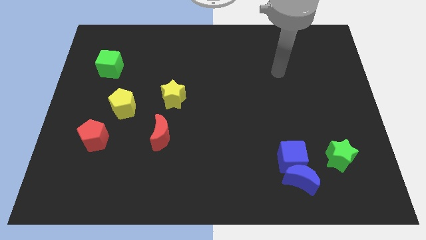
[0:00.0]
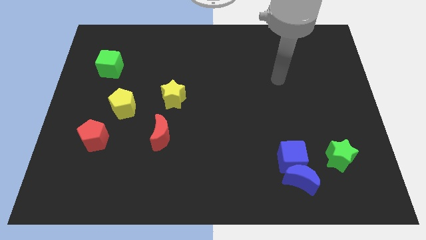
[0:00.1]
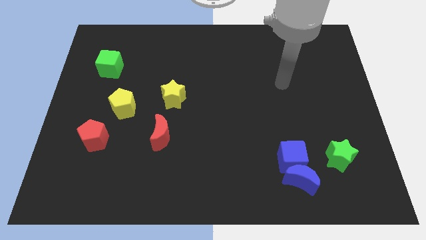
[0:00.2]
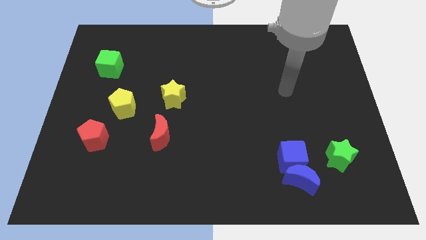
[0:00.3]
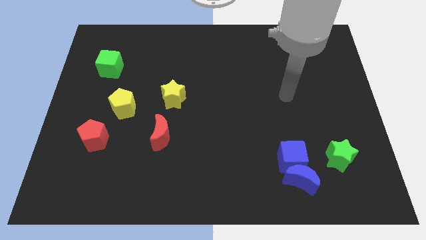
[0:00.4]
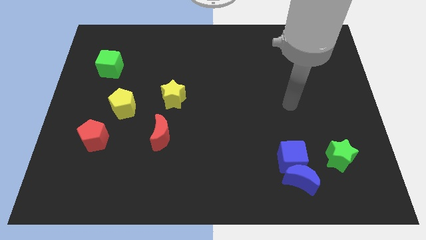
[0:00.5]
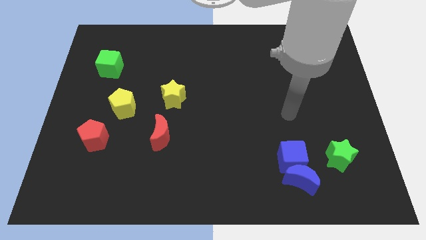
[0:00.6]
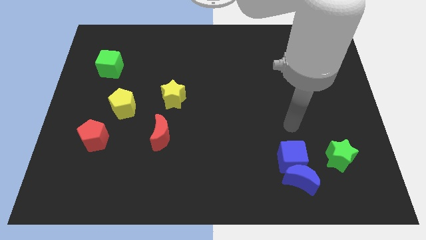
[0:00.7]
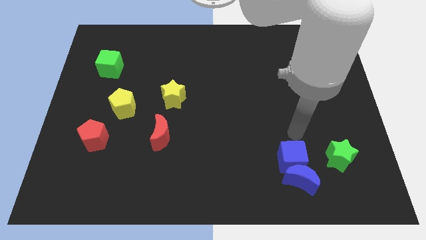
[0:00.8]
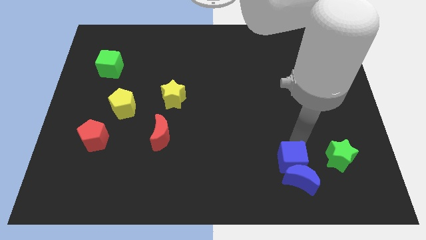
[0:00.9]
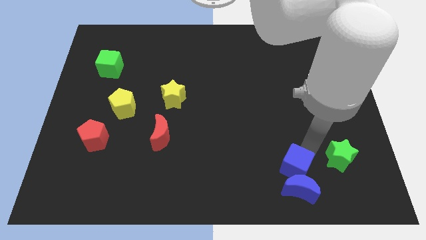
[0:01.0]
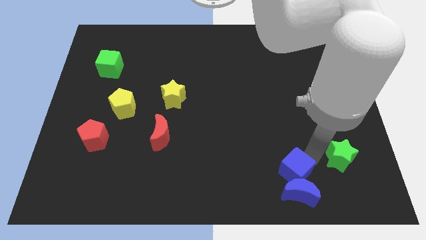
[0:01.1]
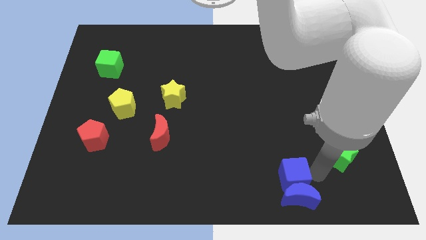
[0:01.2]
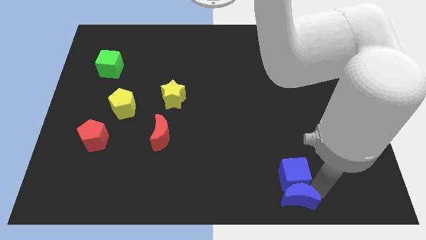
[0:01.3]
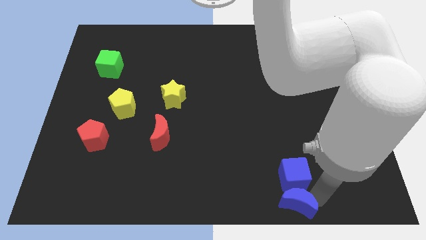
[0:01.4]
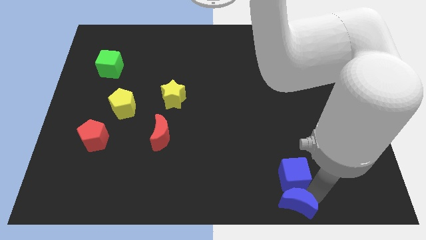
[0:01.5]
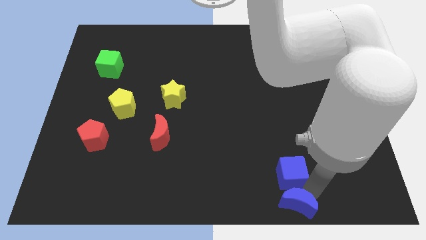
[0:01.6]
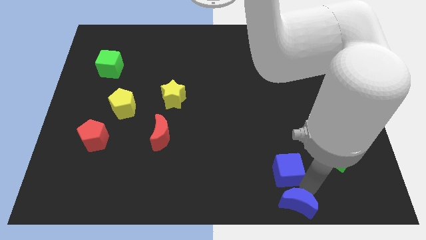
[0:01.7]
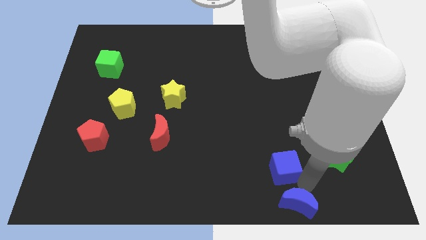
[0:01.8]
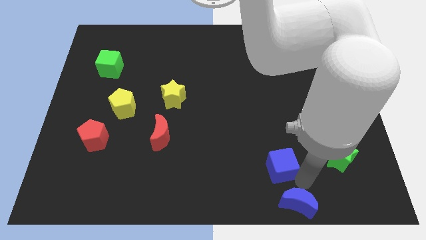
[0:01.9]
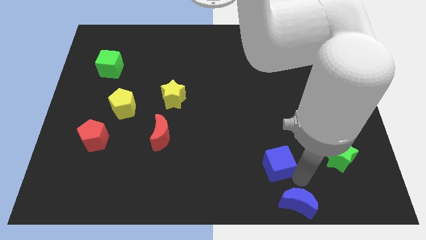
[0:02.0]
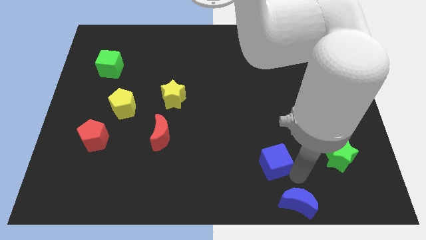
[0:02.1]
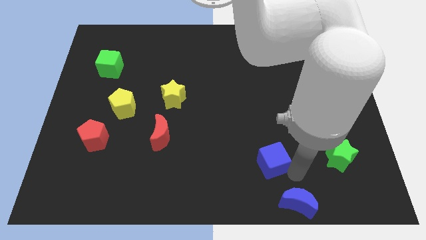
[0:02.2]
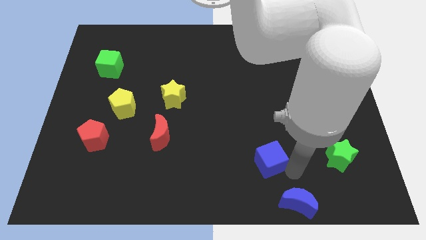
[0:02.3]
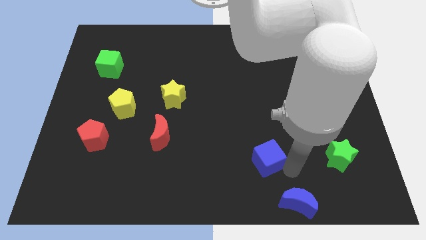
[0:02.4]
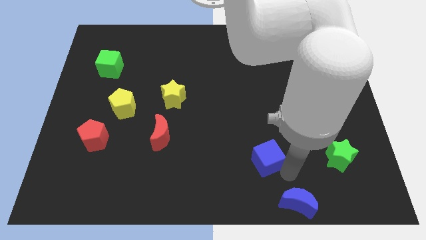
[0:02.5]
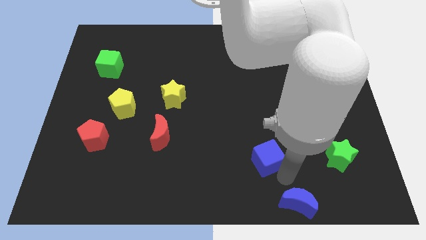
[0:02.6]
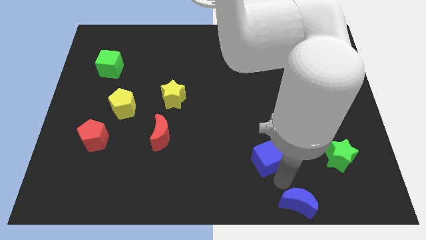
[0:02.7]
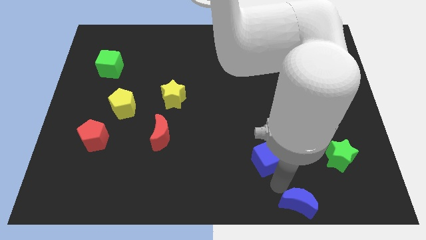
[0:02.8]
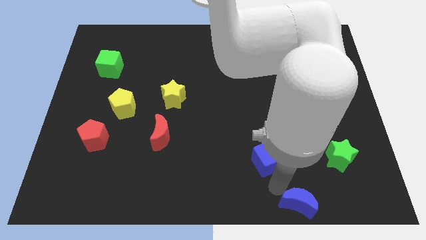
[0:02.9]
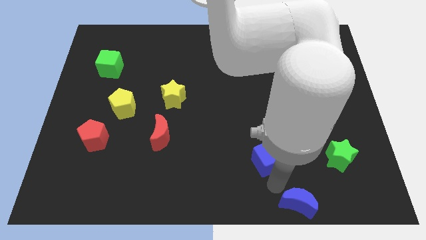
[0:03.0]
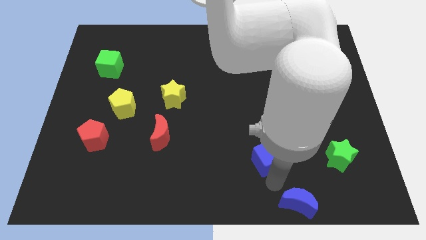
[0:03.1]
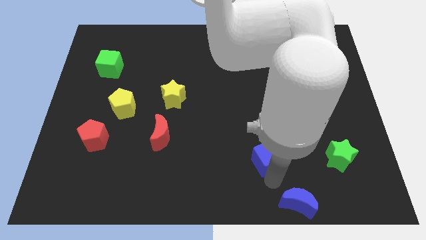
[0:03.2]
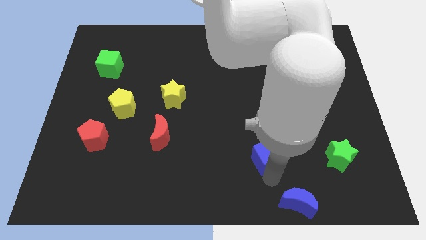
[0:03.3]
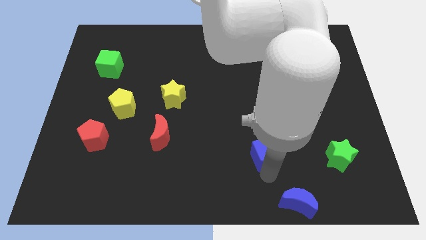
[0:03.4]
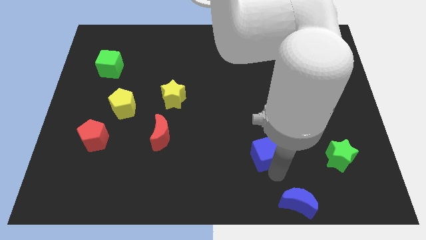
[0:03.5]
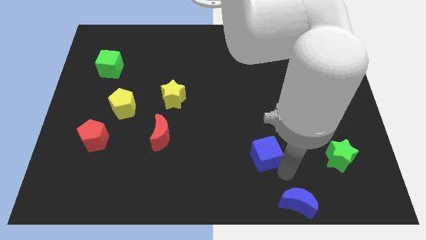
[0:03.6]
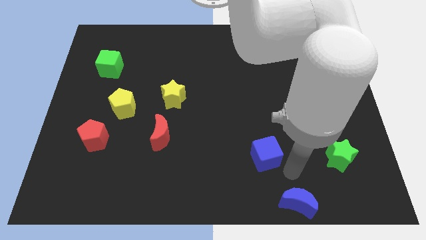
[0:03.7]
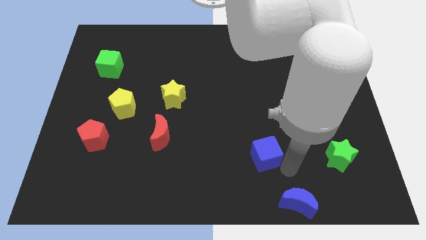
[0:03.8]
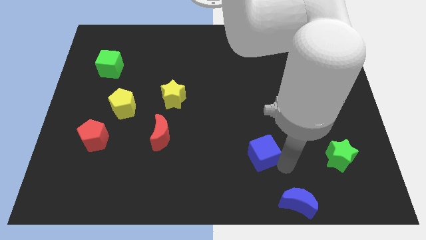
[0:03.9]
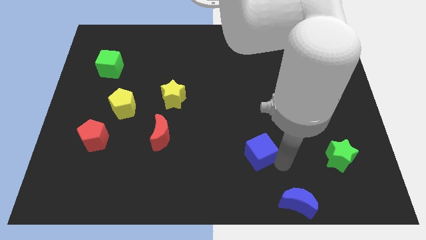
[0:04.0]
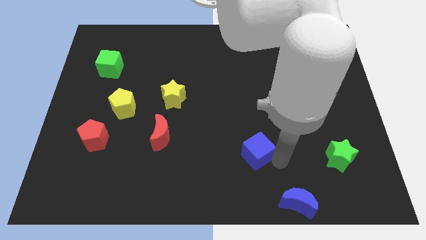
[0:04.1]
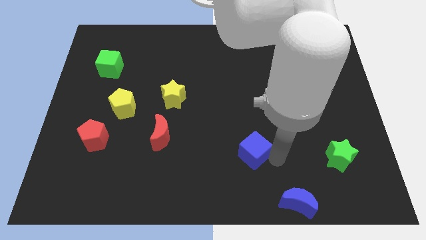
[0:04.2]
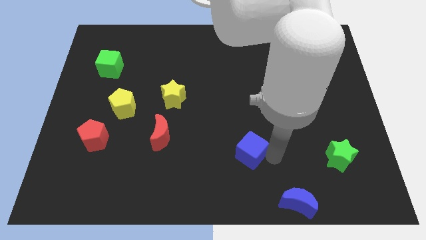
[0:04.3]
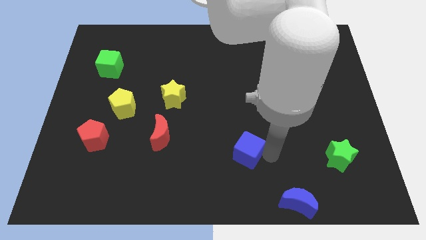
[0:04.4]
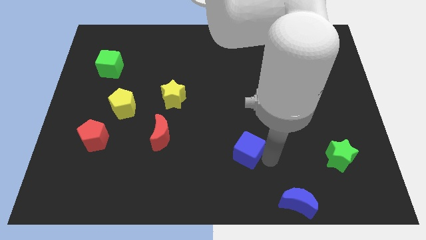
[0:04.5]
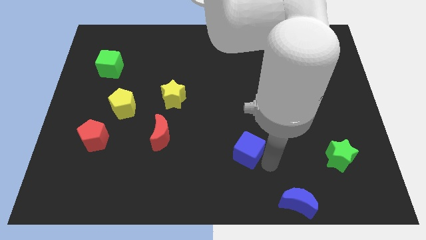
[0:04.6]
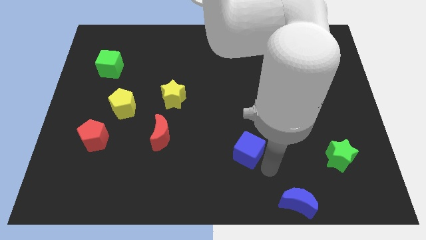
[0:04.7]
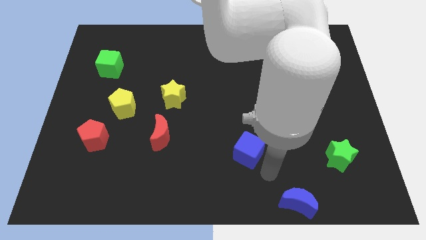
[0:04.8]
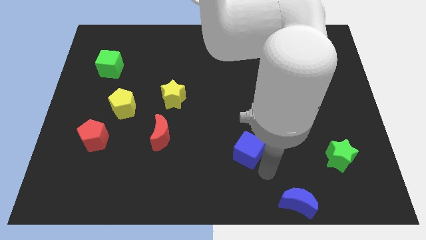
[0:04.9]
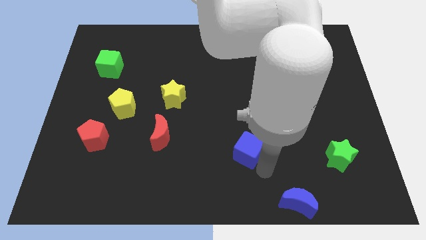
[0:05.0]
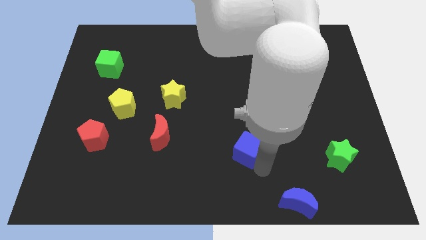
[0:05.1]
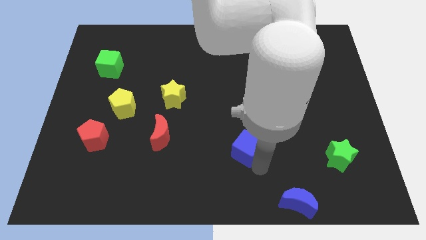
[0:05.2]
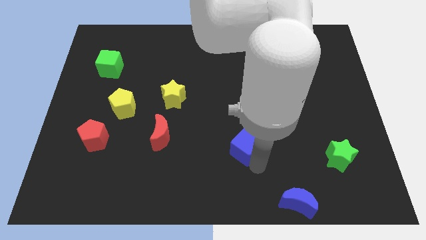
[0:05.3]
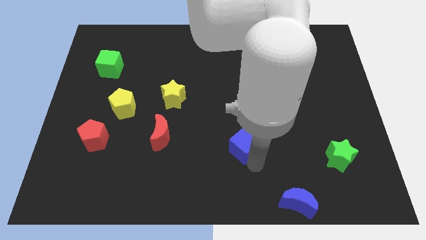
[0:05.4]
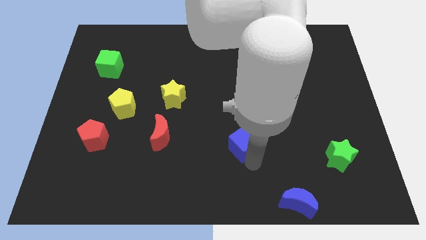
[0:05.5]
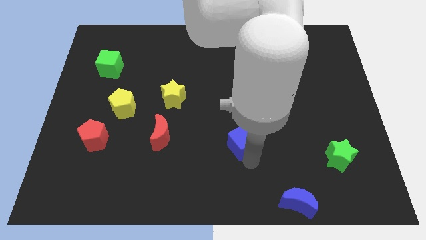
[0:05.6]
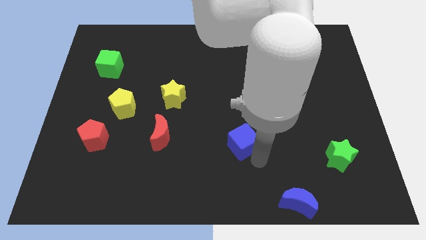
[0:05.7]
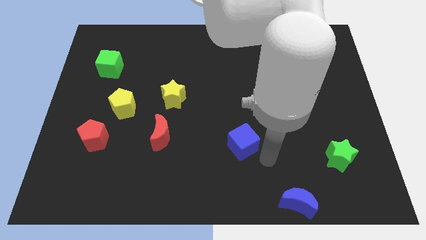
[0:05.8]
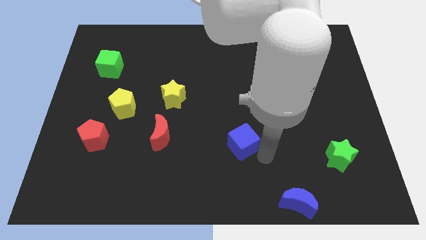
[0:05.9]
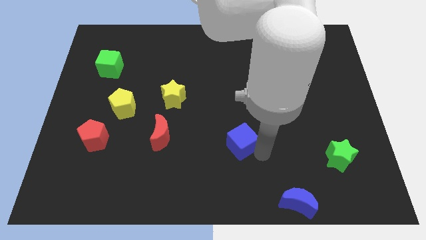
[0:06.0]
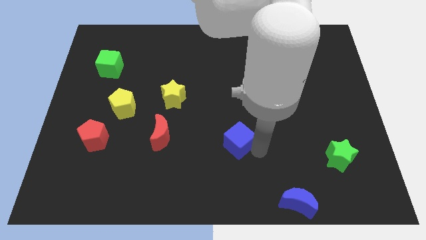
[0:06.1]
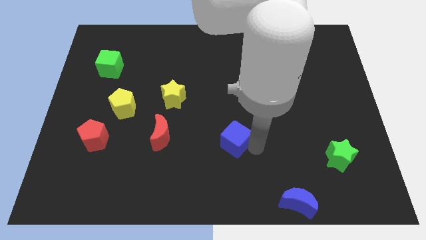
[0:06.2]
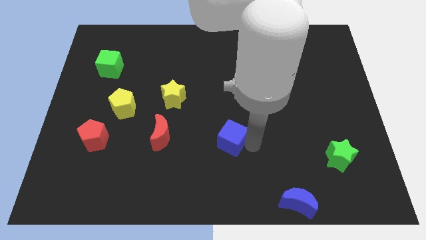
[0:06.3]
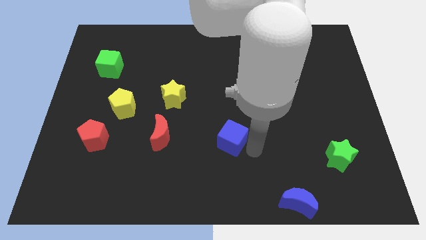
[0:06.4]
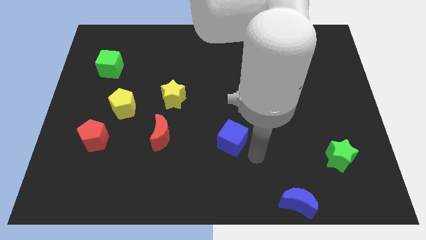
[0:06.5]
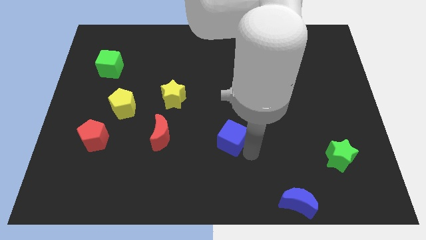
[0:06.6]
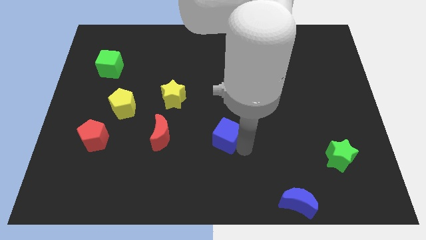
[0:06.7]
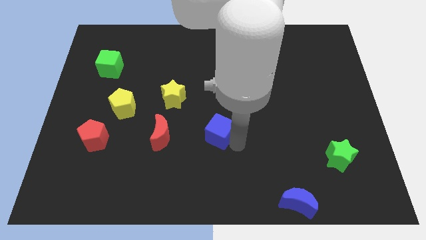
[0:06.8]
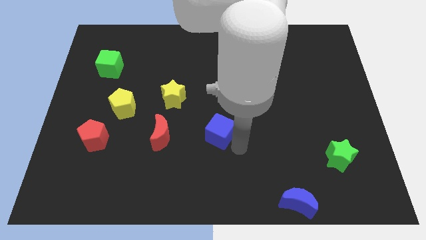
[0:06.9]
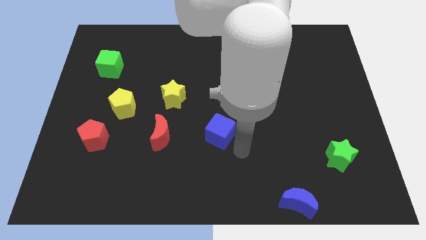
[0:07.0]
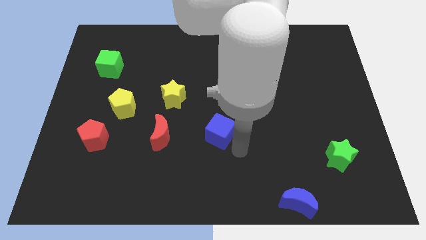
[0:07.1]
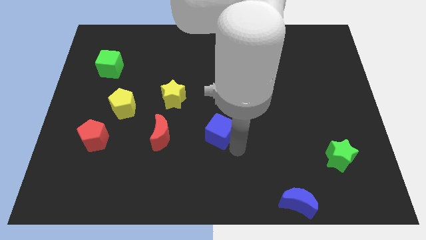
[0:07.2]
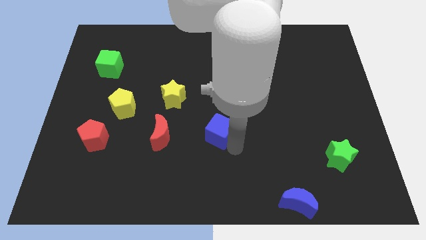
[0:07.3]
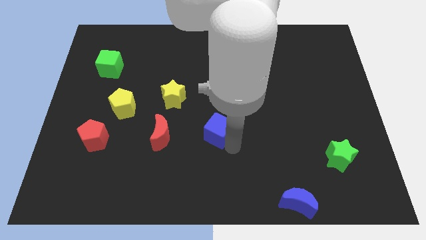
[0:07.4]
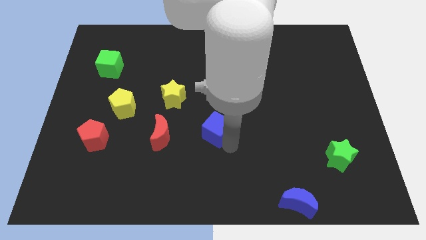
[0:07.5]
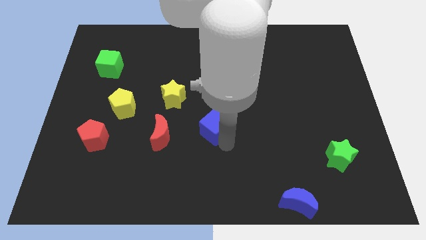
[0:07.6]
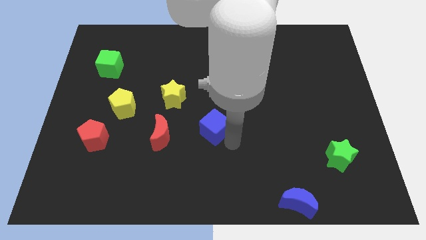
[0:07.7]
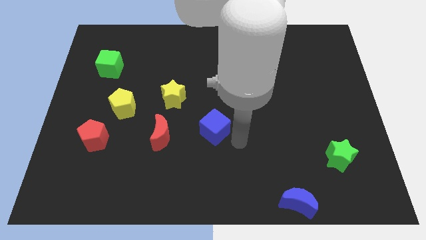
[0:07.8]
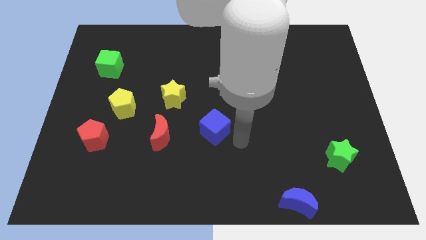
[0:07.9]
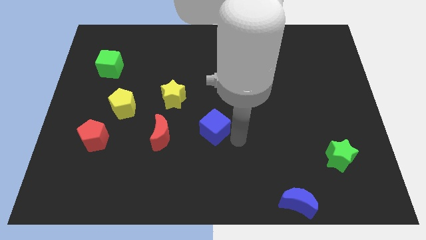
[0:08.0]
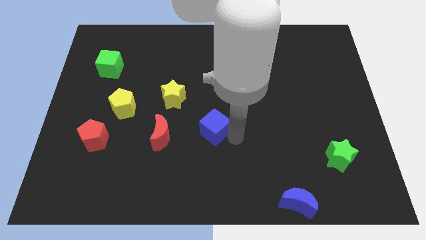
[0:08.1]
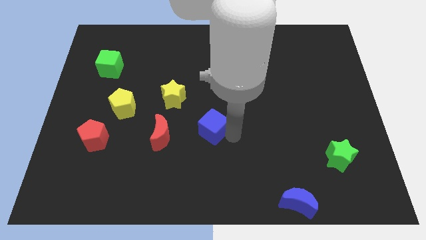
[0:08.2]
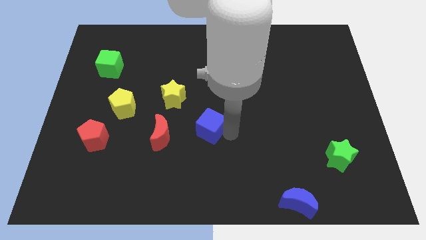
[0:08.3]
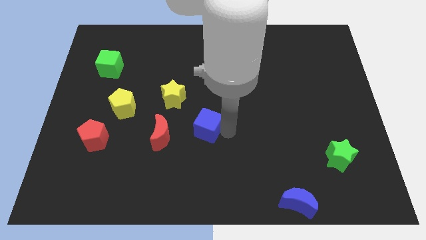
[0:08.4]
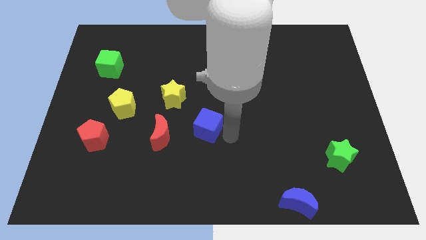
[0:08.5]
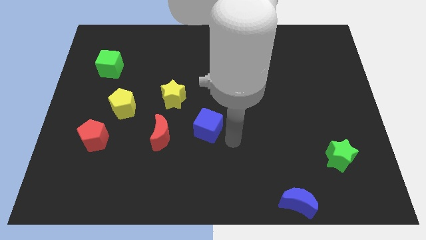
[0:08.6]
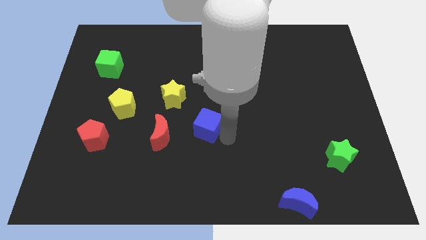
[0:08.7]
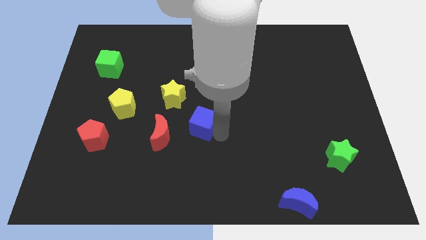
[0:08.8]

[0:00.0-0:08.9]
move the blue cube to the top right side of the red moon
